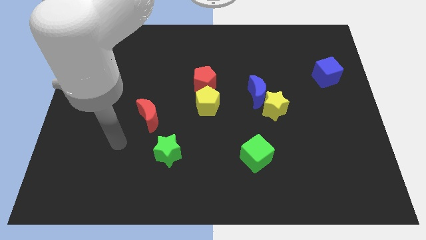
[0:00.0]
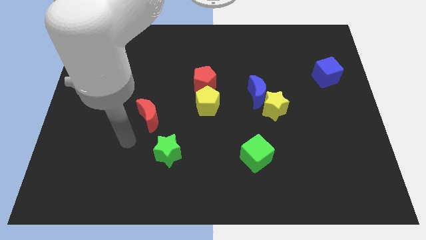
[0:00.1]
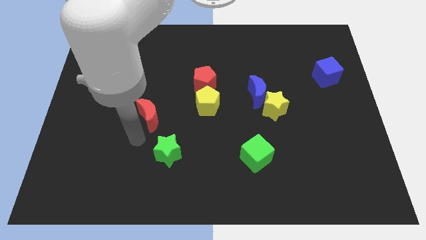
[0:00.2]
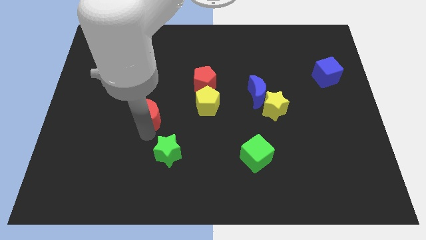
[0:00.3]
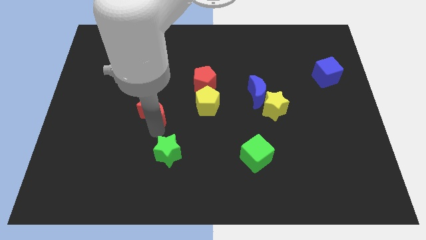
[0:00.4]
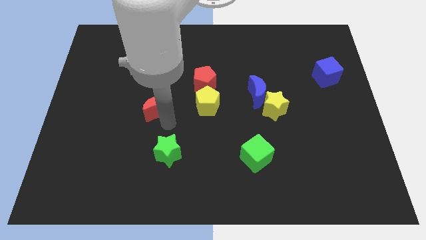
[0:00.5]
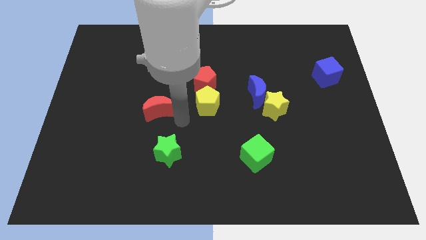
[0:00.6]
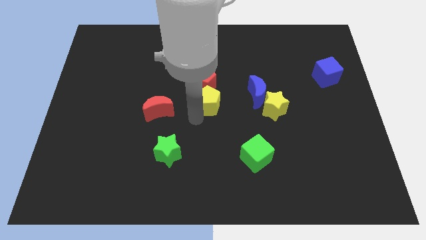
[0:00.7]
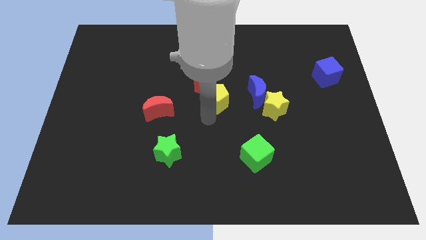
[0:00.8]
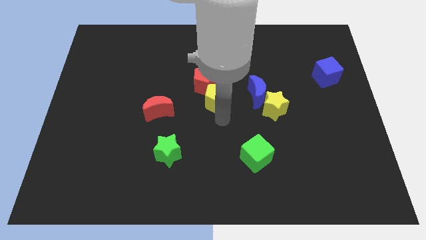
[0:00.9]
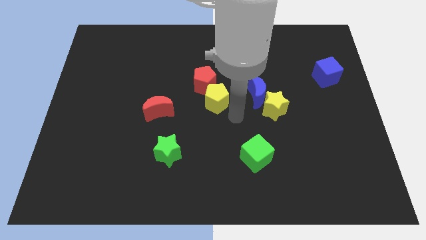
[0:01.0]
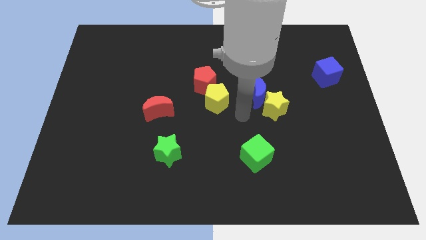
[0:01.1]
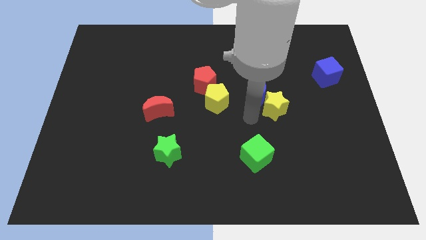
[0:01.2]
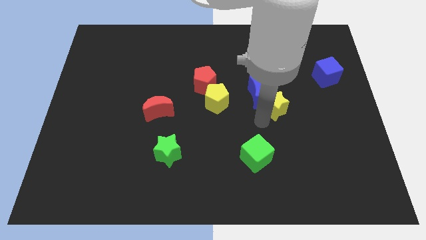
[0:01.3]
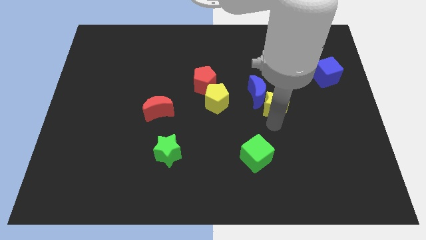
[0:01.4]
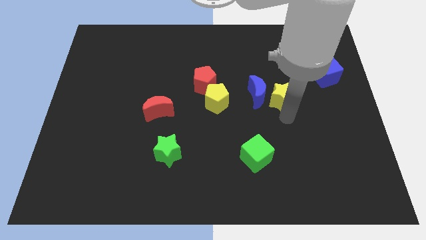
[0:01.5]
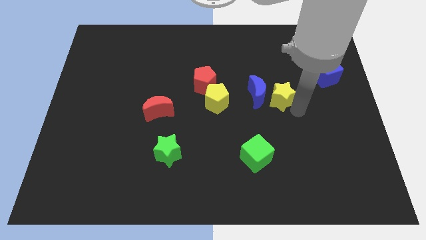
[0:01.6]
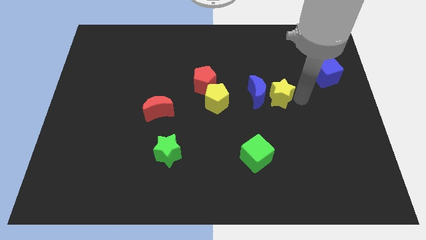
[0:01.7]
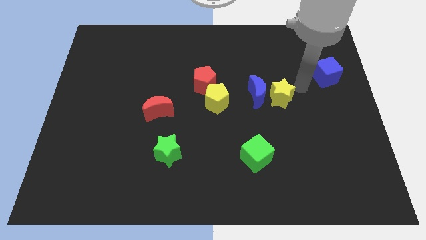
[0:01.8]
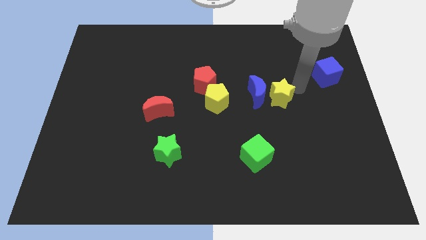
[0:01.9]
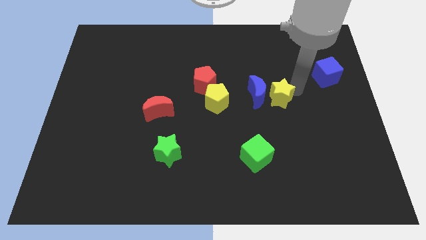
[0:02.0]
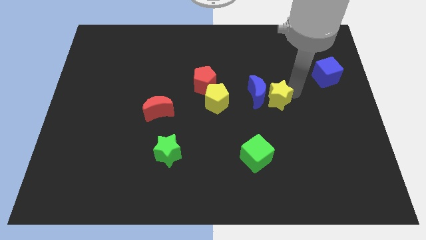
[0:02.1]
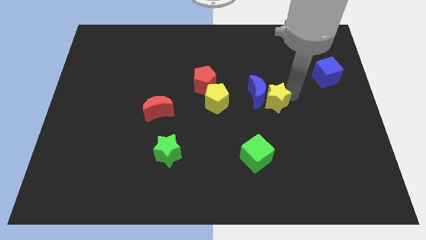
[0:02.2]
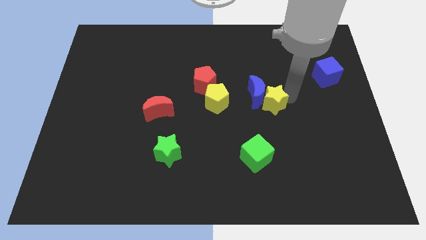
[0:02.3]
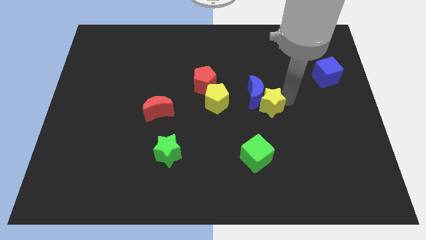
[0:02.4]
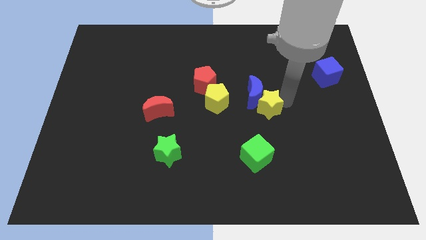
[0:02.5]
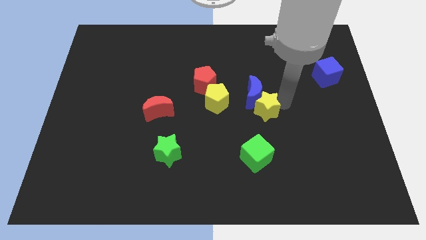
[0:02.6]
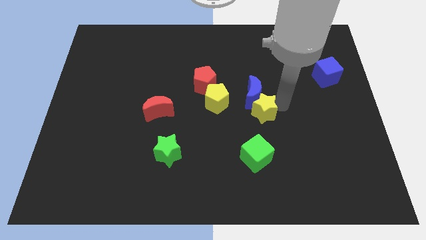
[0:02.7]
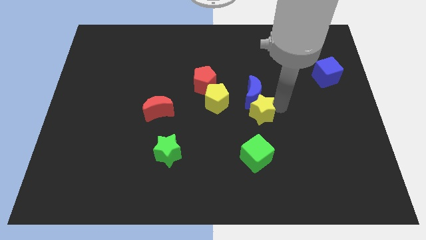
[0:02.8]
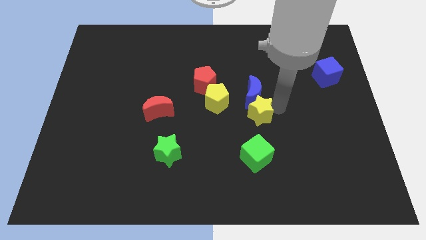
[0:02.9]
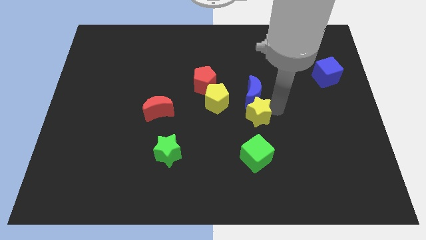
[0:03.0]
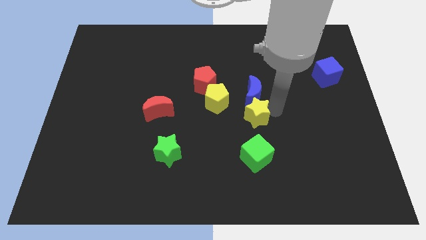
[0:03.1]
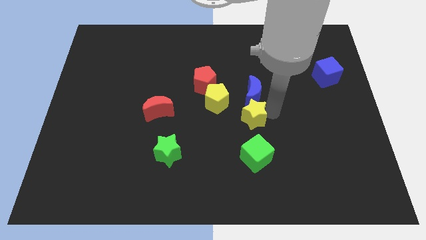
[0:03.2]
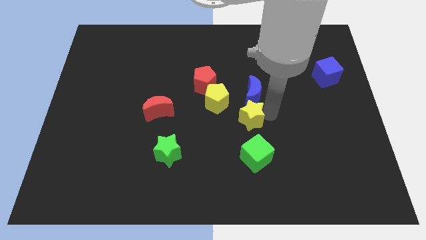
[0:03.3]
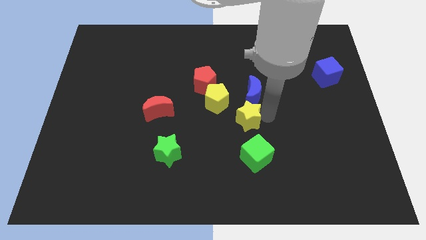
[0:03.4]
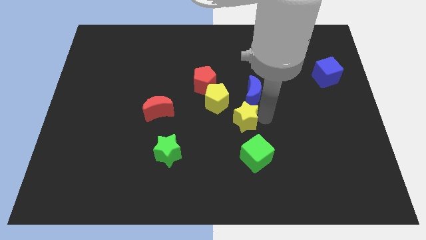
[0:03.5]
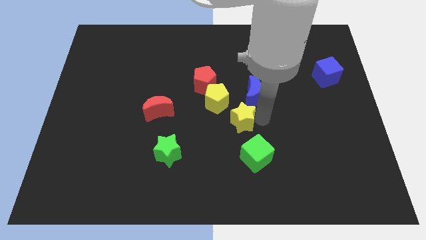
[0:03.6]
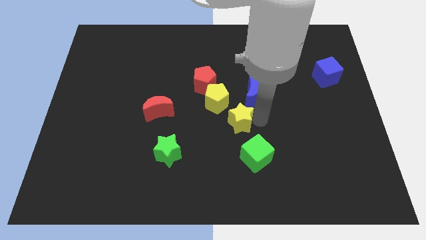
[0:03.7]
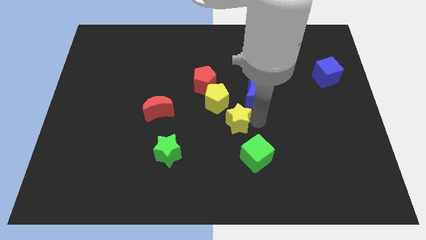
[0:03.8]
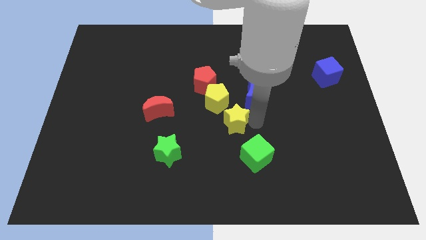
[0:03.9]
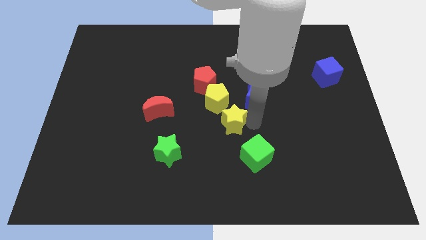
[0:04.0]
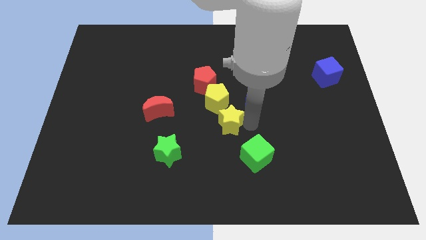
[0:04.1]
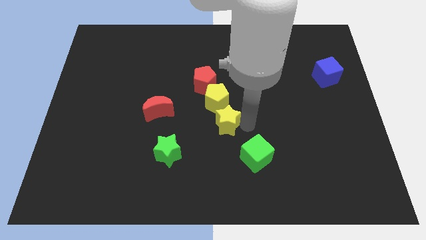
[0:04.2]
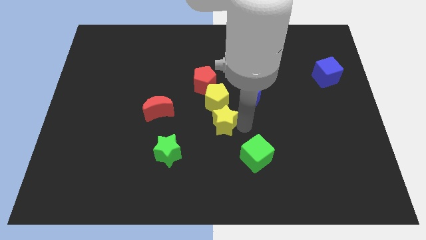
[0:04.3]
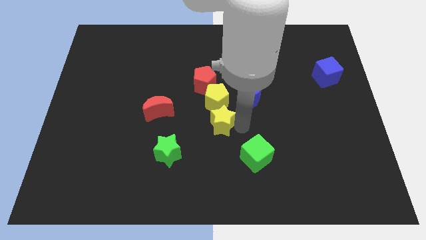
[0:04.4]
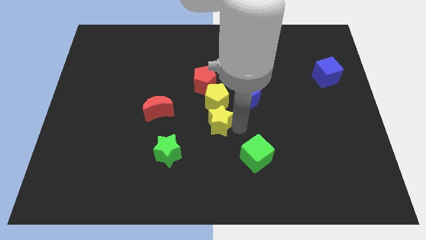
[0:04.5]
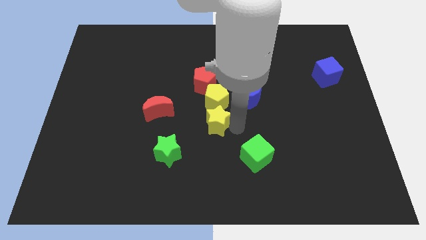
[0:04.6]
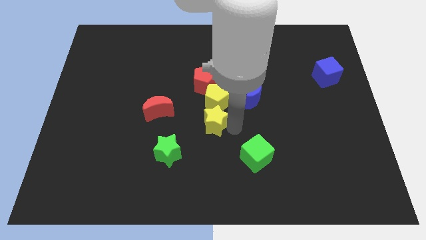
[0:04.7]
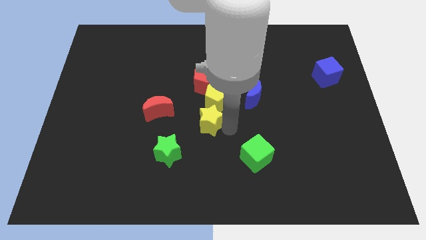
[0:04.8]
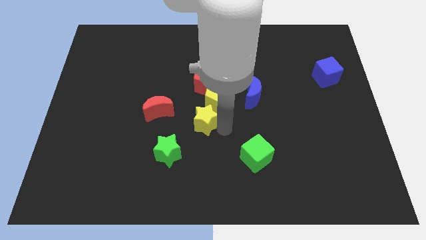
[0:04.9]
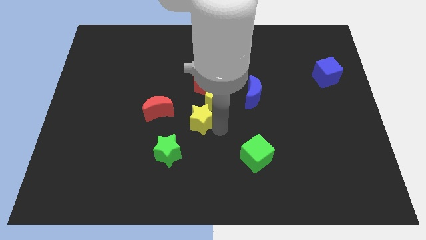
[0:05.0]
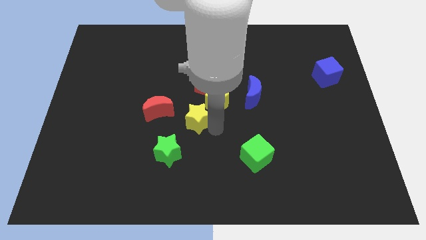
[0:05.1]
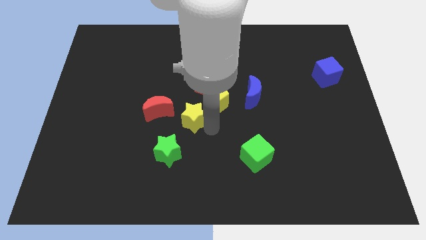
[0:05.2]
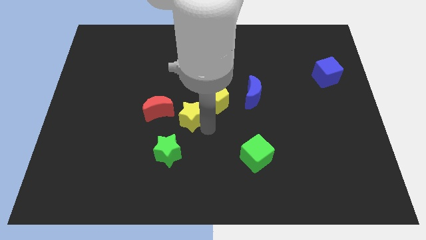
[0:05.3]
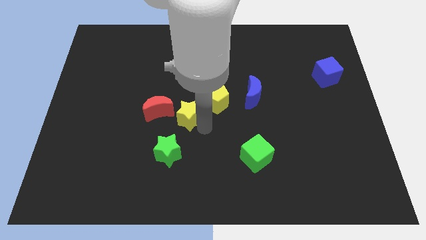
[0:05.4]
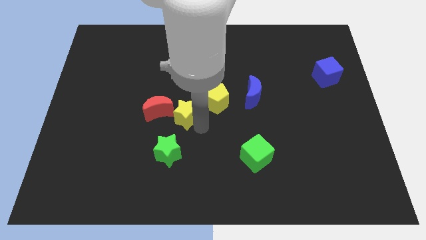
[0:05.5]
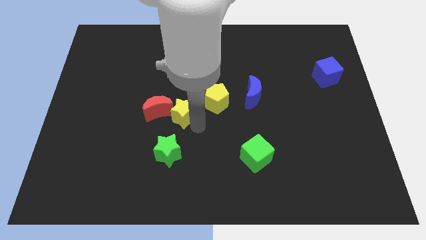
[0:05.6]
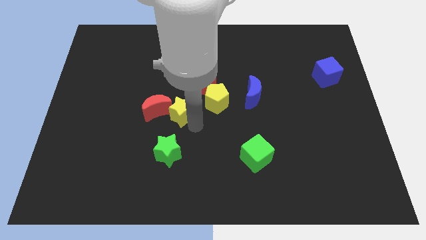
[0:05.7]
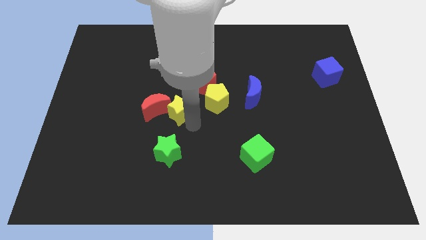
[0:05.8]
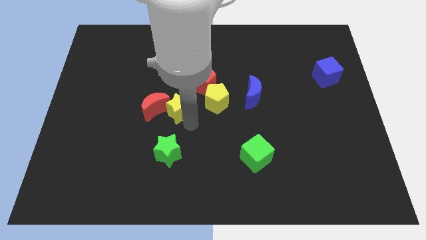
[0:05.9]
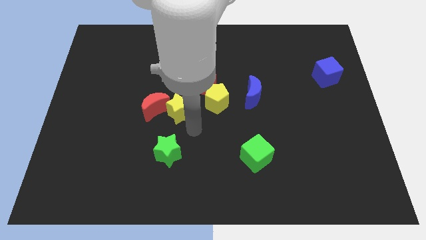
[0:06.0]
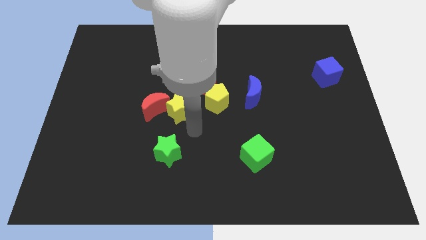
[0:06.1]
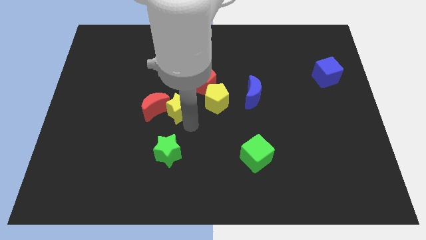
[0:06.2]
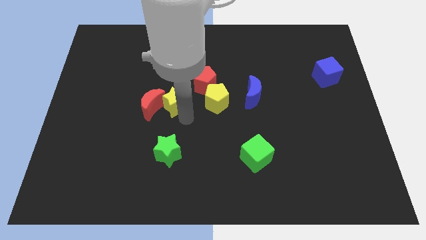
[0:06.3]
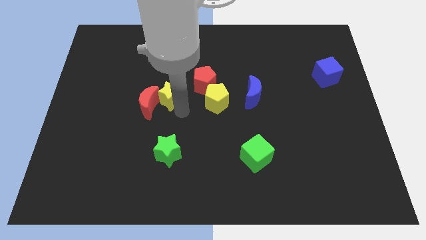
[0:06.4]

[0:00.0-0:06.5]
slide the yellow star just left of the red pentagon
